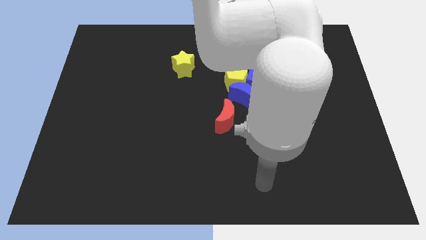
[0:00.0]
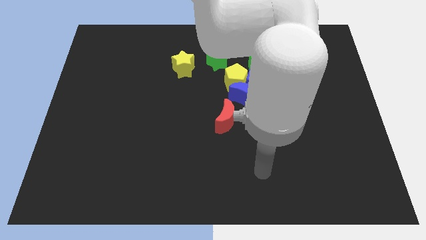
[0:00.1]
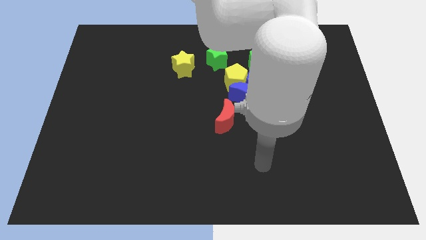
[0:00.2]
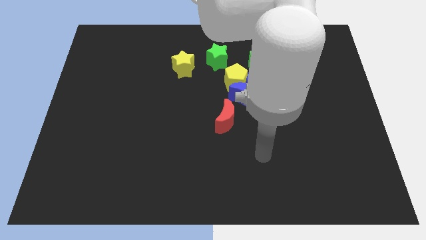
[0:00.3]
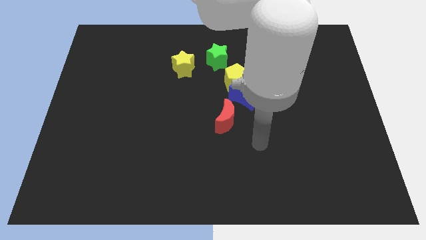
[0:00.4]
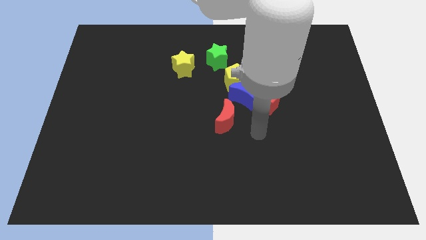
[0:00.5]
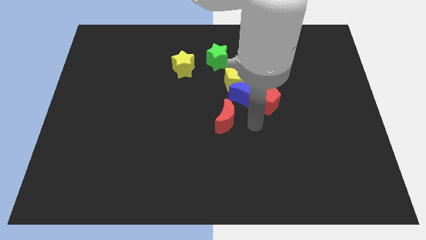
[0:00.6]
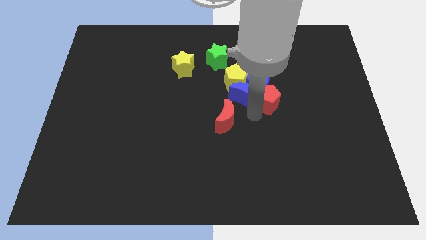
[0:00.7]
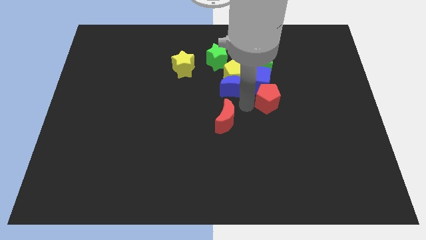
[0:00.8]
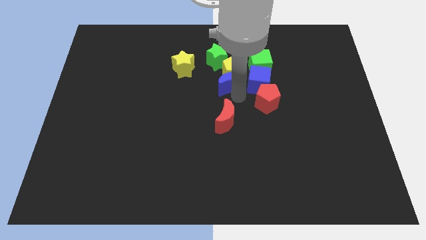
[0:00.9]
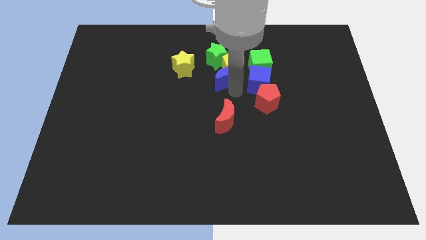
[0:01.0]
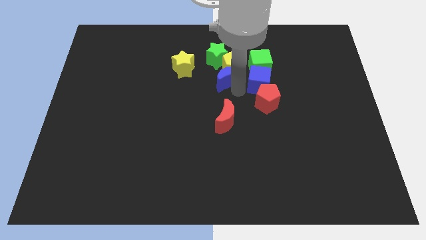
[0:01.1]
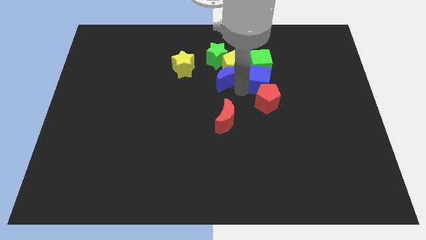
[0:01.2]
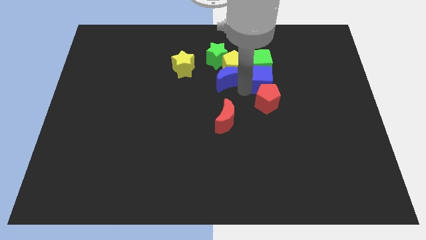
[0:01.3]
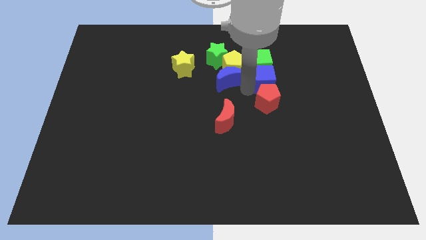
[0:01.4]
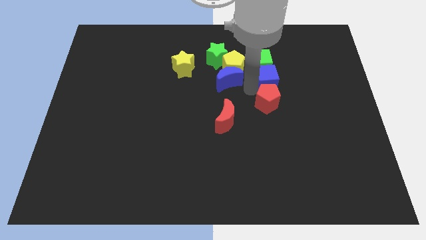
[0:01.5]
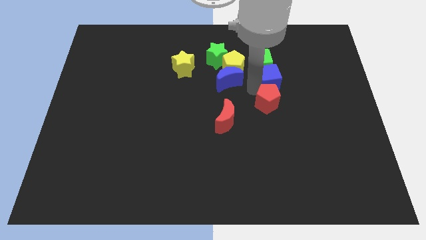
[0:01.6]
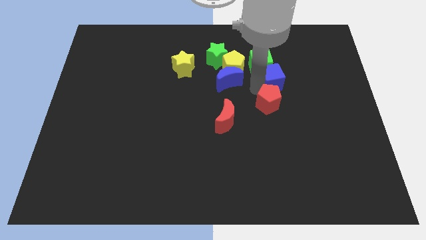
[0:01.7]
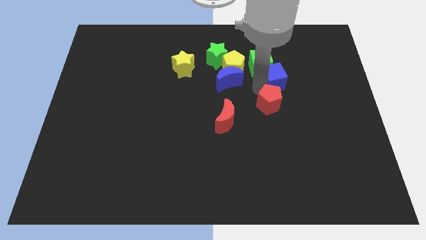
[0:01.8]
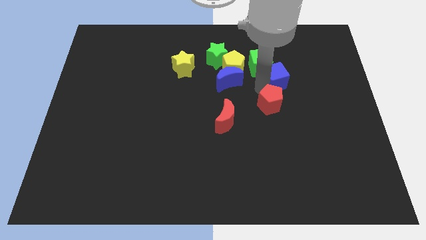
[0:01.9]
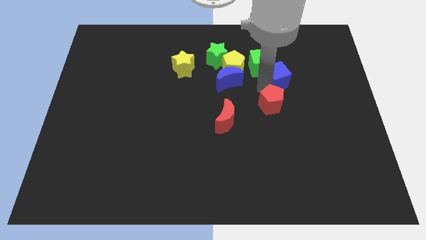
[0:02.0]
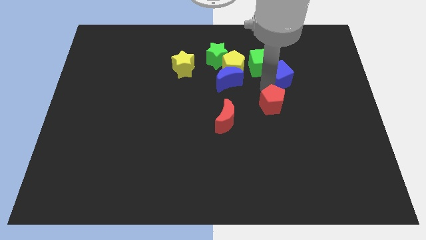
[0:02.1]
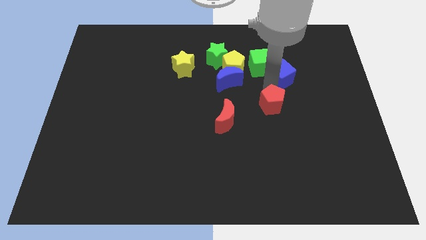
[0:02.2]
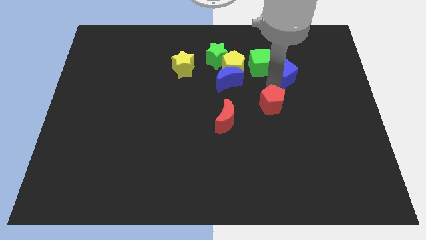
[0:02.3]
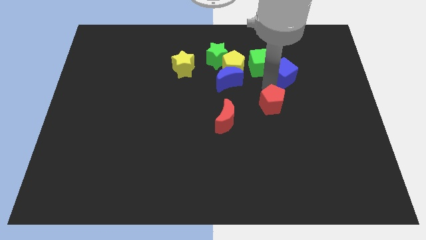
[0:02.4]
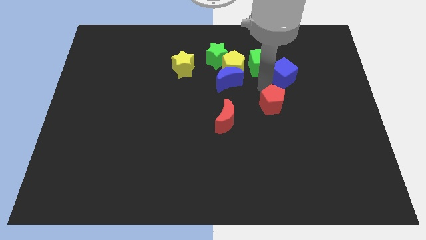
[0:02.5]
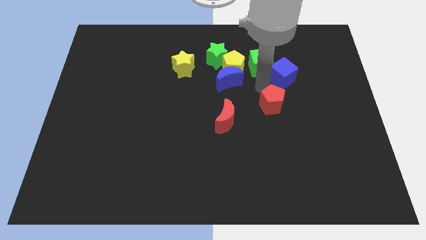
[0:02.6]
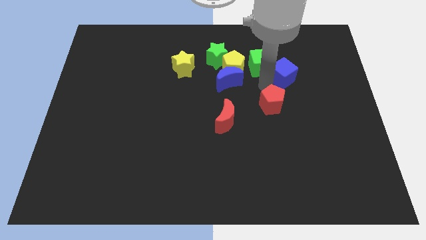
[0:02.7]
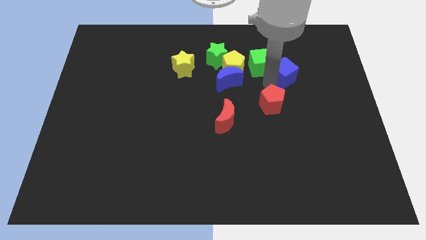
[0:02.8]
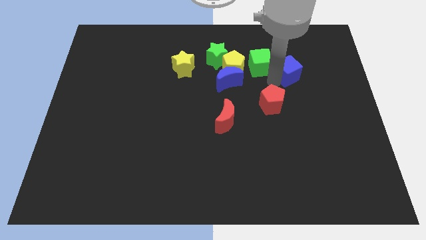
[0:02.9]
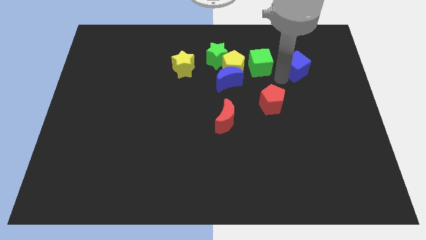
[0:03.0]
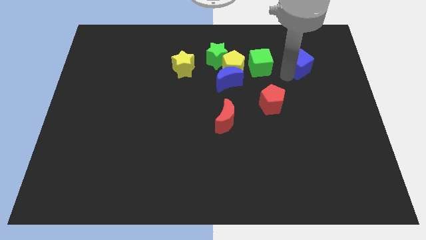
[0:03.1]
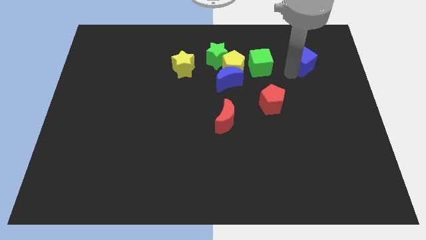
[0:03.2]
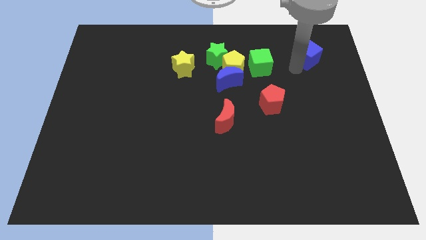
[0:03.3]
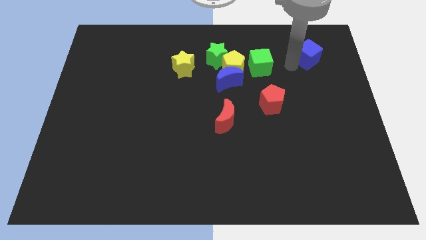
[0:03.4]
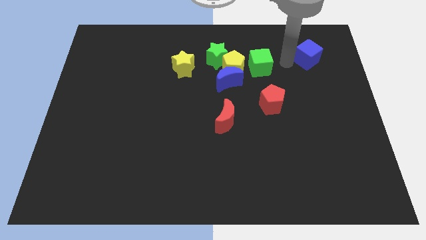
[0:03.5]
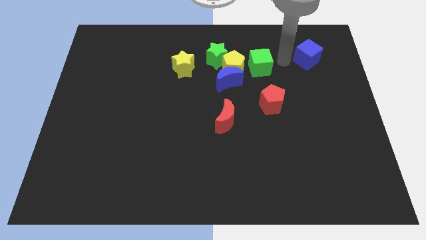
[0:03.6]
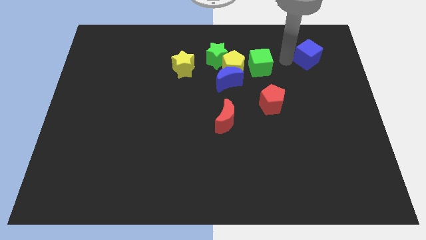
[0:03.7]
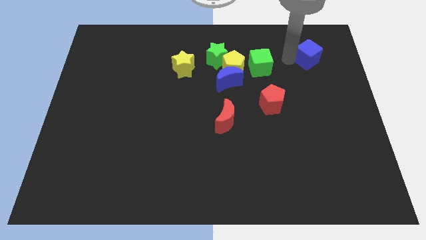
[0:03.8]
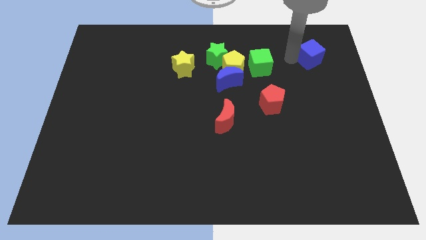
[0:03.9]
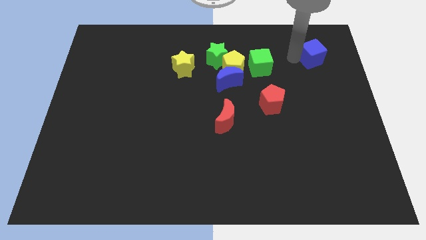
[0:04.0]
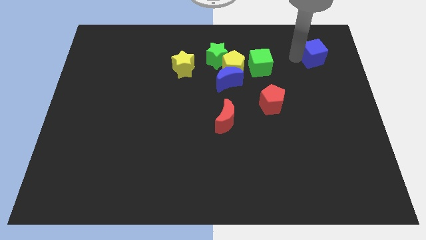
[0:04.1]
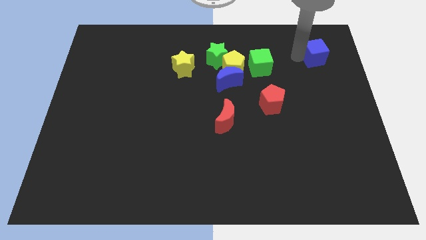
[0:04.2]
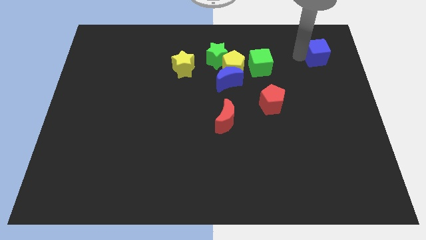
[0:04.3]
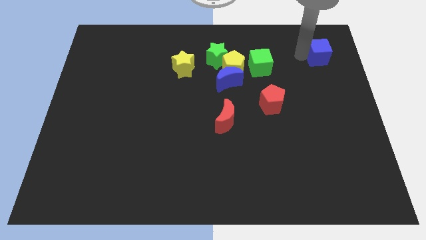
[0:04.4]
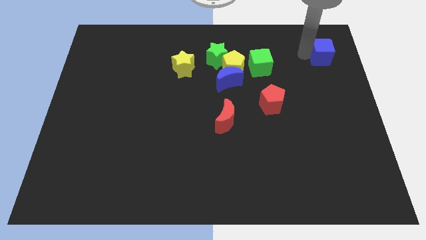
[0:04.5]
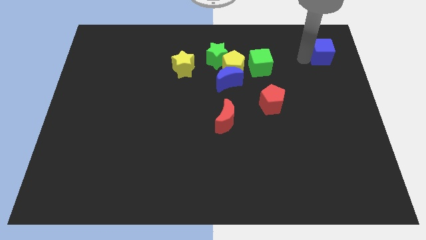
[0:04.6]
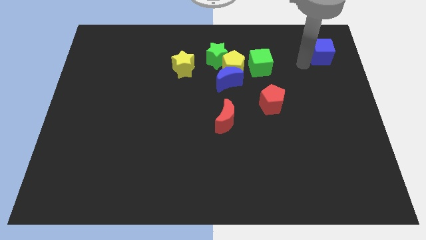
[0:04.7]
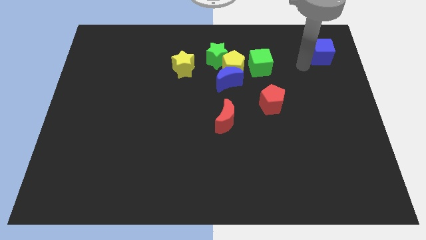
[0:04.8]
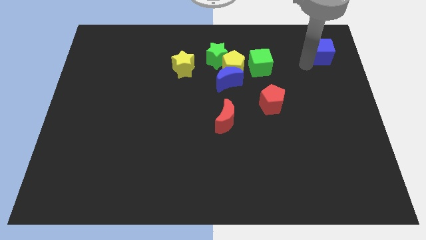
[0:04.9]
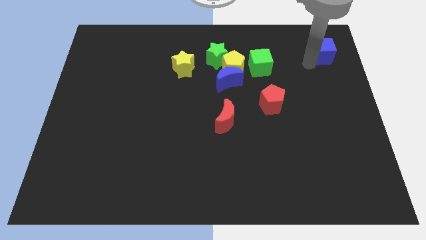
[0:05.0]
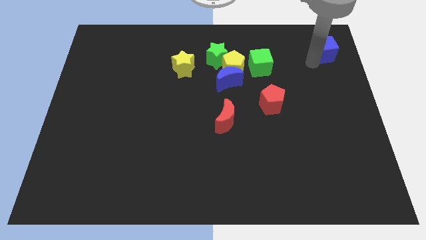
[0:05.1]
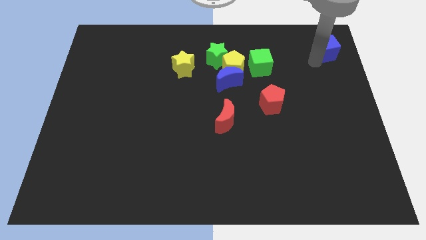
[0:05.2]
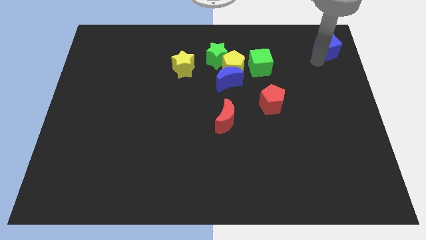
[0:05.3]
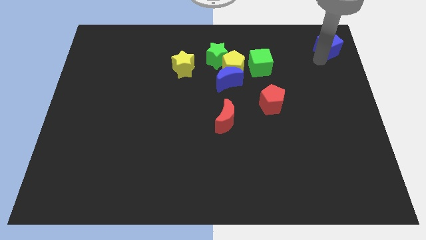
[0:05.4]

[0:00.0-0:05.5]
move the blue cube to the top right of the board

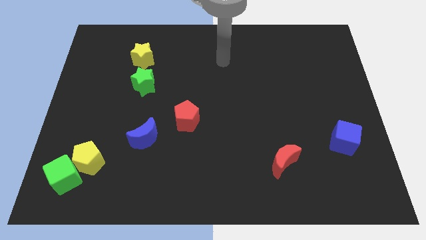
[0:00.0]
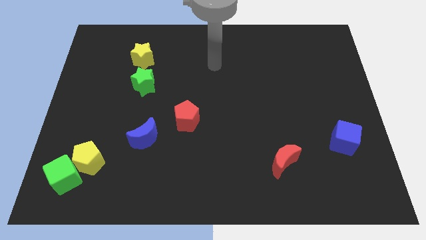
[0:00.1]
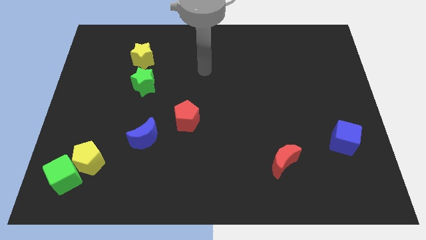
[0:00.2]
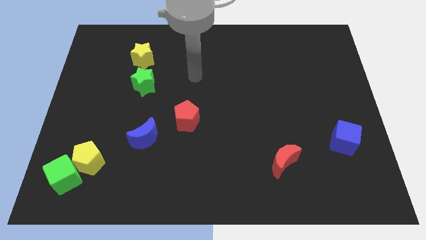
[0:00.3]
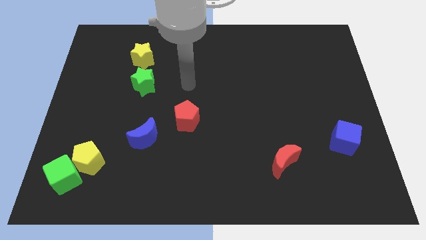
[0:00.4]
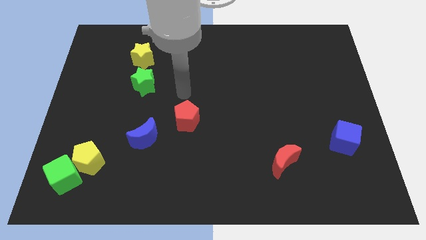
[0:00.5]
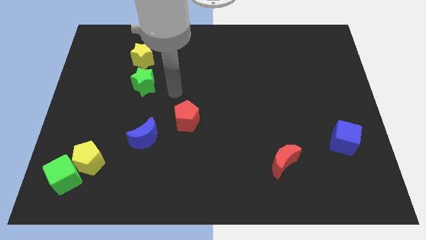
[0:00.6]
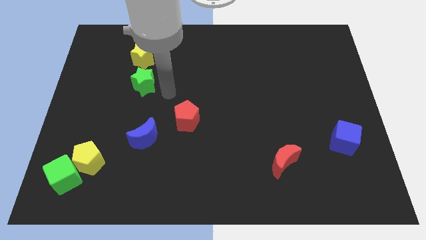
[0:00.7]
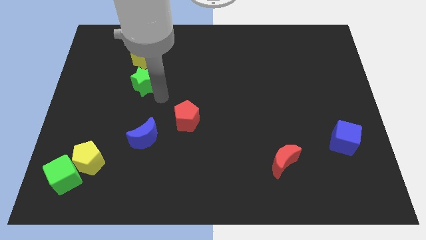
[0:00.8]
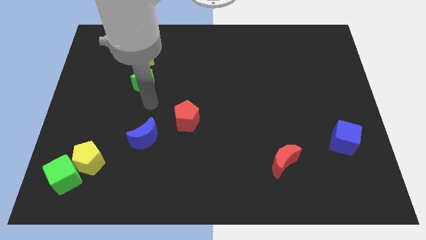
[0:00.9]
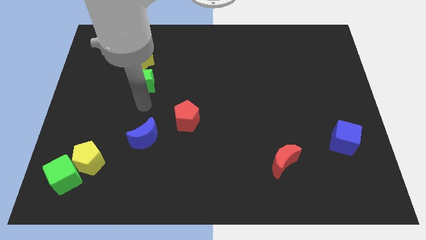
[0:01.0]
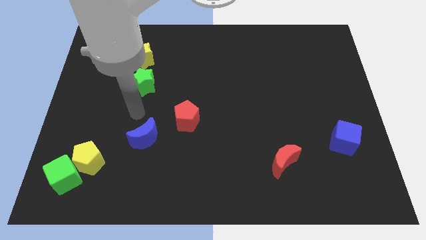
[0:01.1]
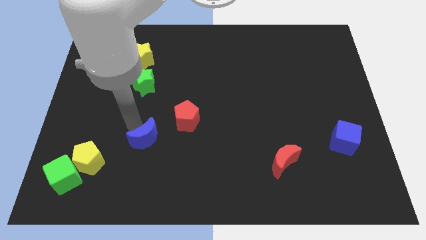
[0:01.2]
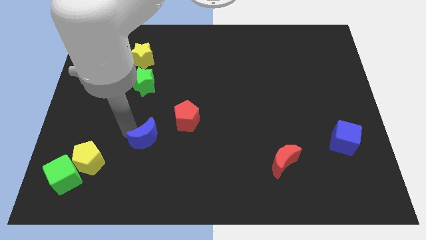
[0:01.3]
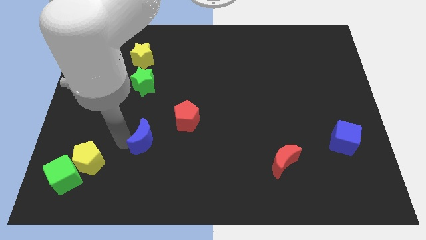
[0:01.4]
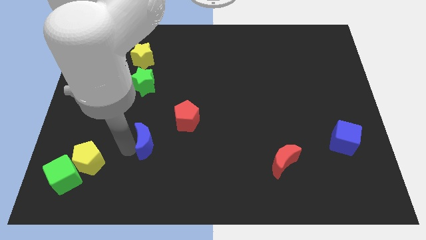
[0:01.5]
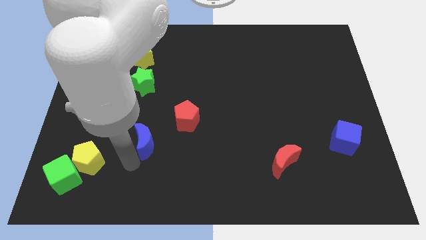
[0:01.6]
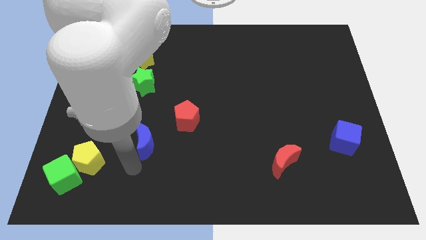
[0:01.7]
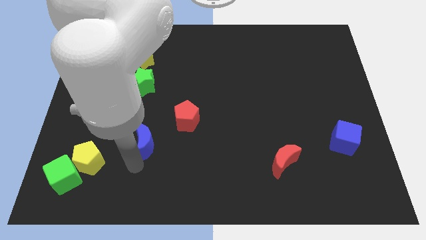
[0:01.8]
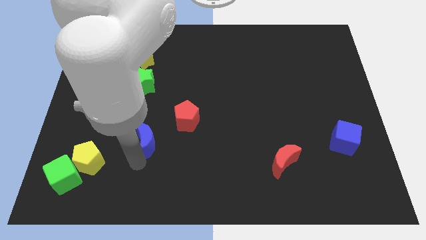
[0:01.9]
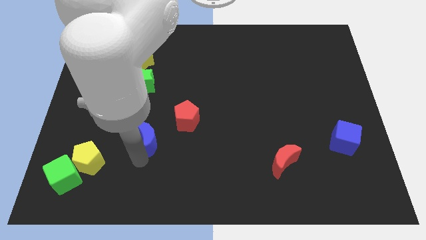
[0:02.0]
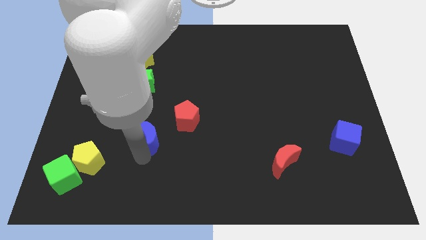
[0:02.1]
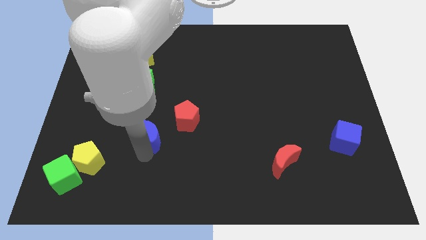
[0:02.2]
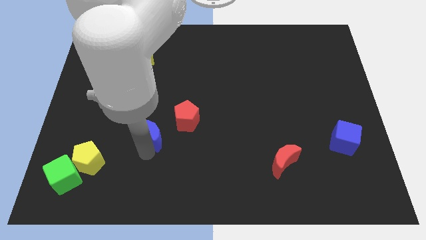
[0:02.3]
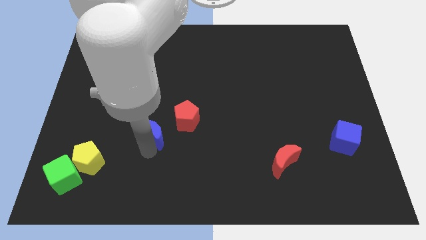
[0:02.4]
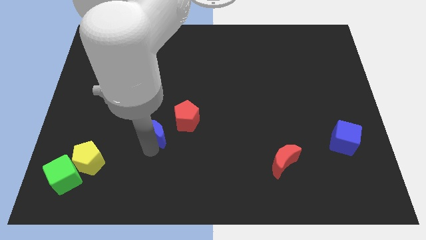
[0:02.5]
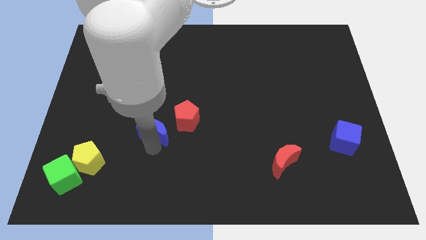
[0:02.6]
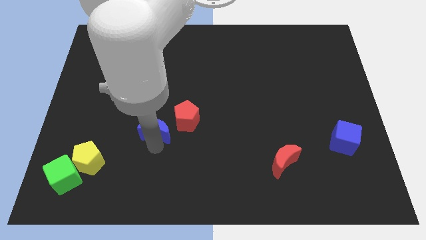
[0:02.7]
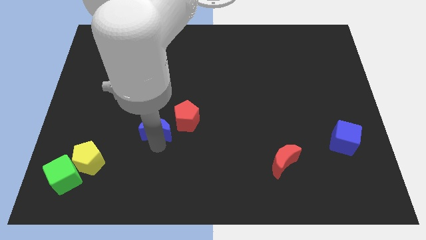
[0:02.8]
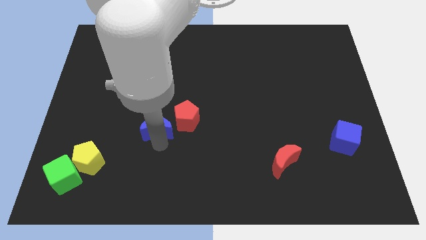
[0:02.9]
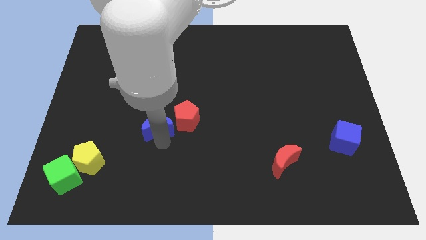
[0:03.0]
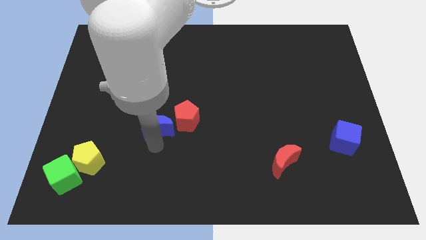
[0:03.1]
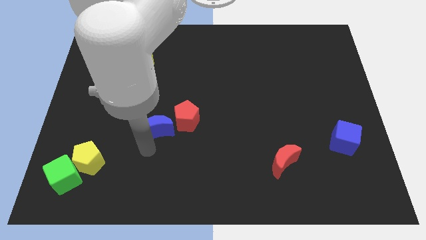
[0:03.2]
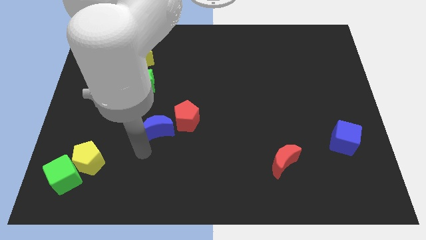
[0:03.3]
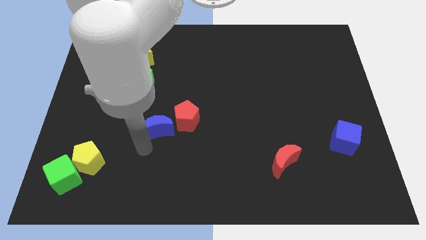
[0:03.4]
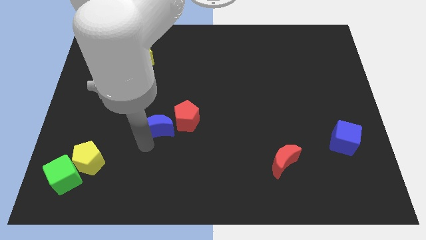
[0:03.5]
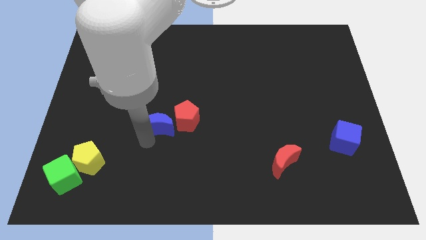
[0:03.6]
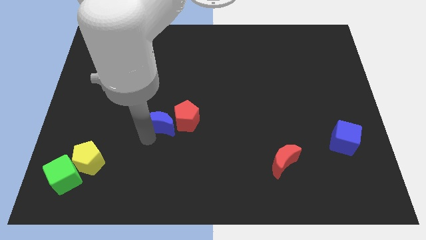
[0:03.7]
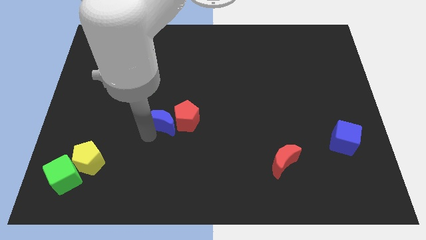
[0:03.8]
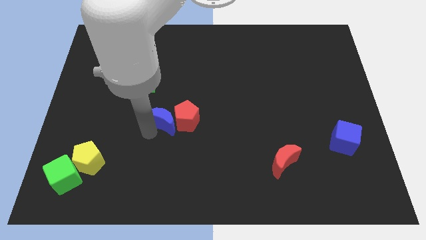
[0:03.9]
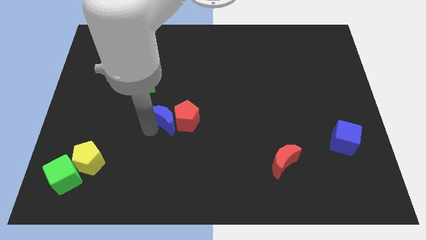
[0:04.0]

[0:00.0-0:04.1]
put the blue moon to the center
